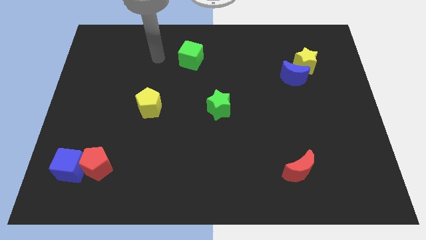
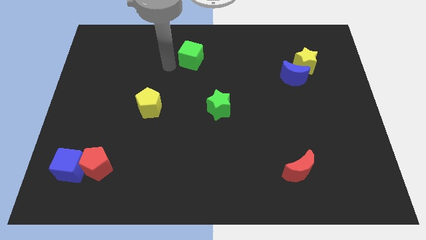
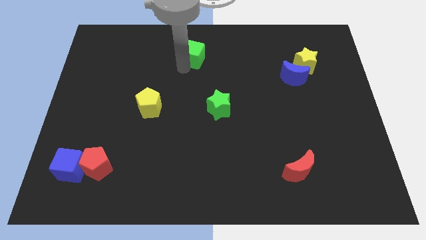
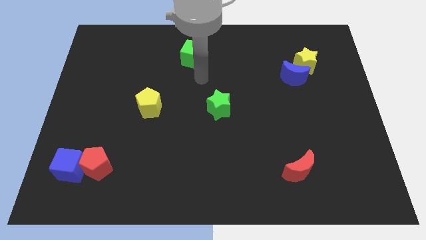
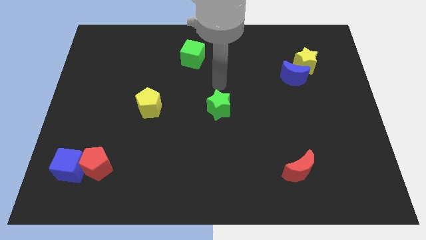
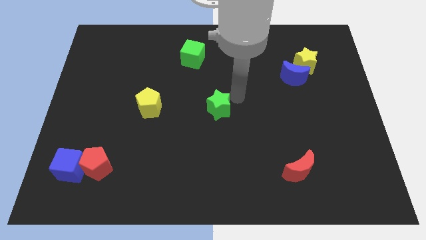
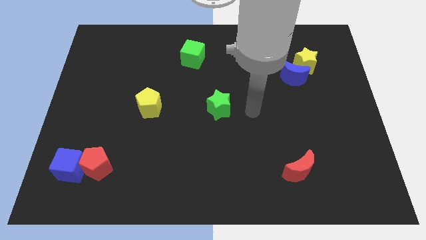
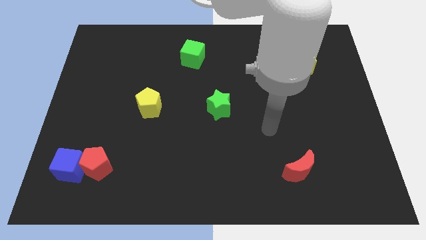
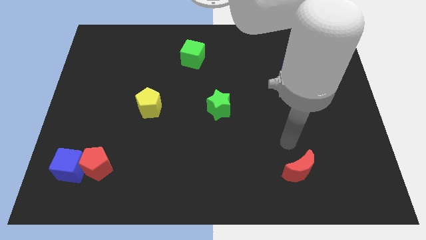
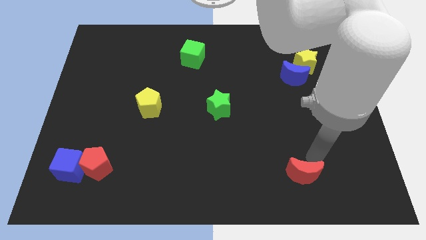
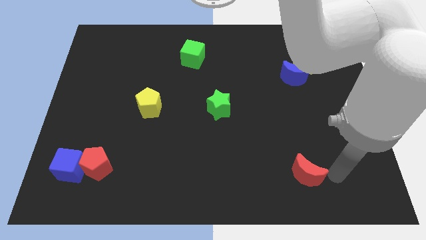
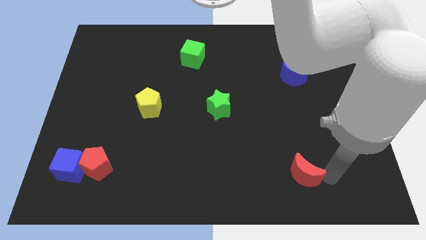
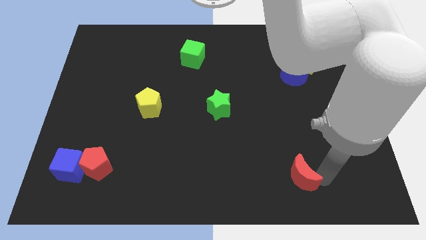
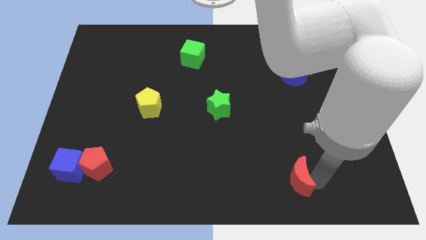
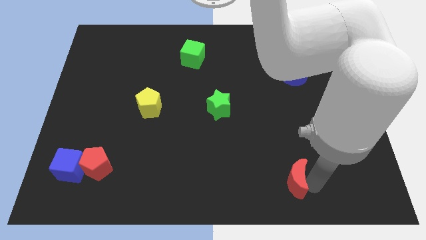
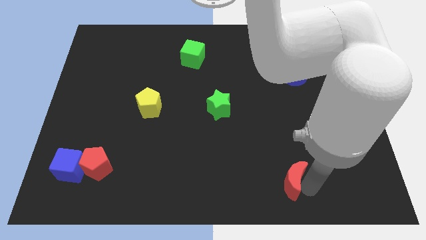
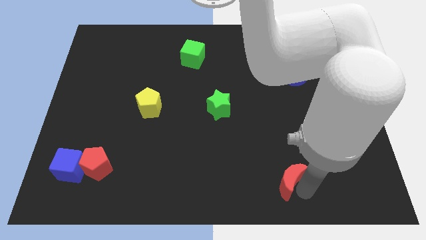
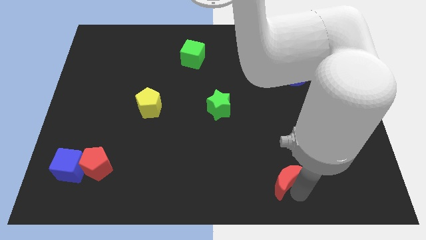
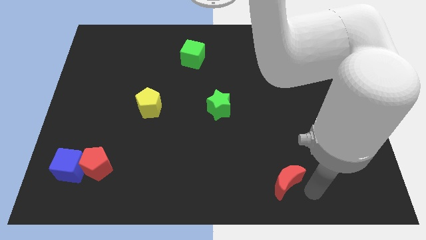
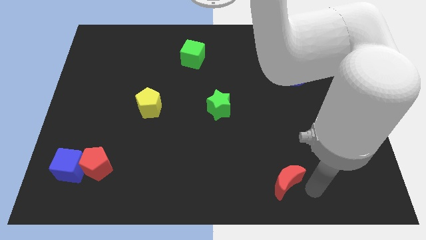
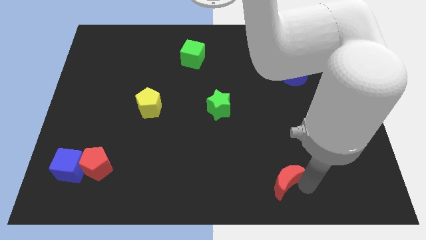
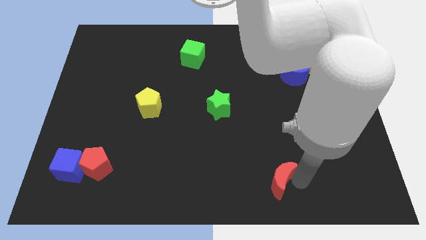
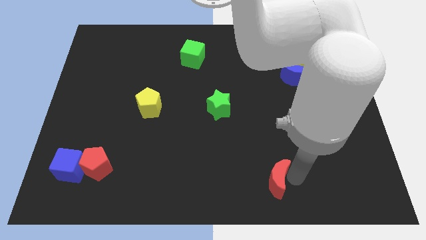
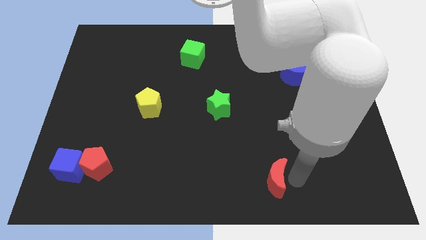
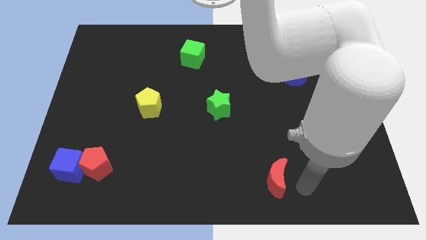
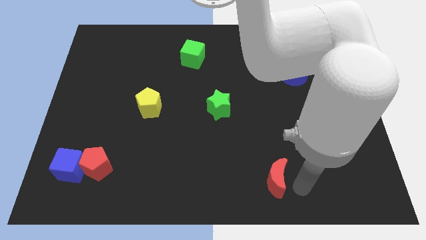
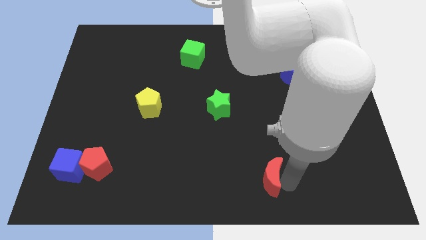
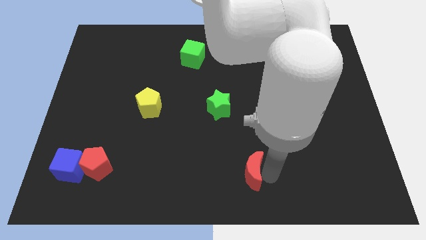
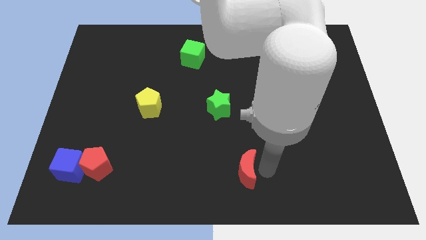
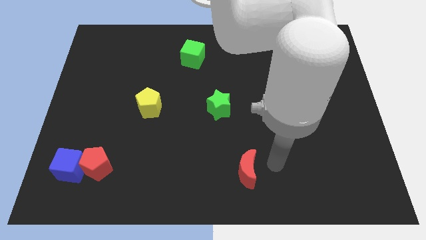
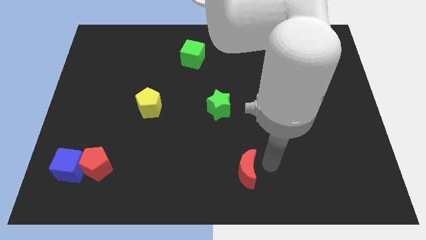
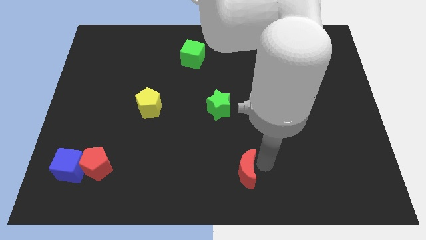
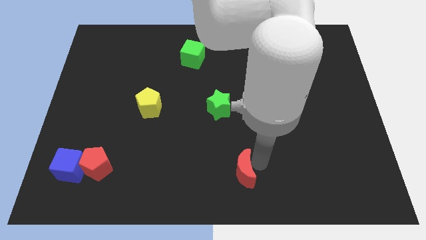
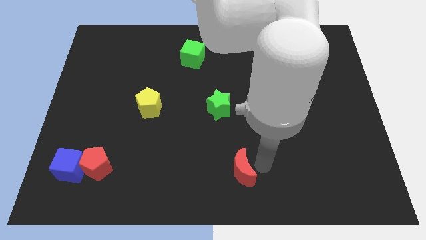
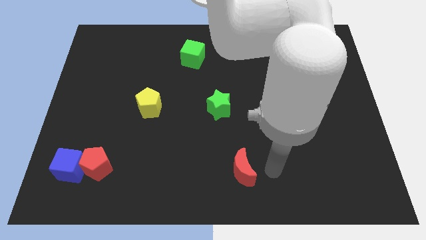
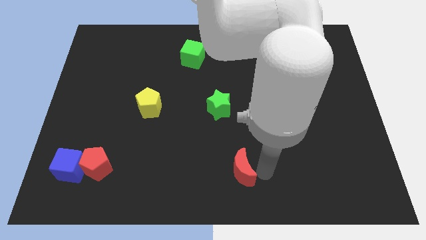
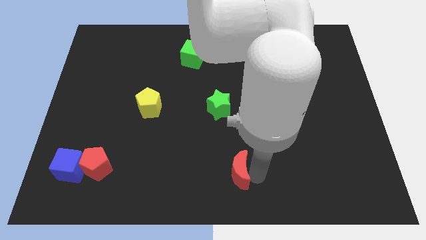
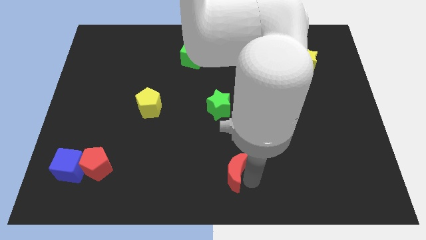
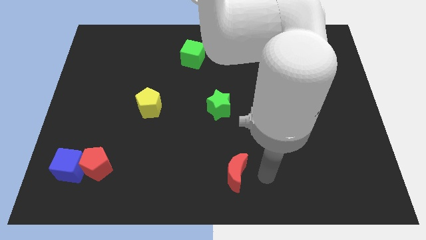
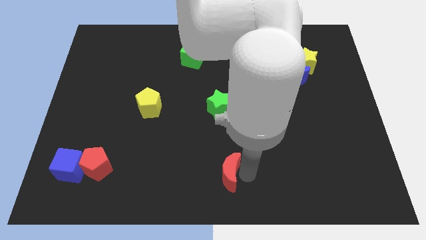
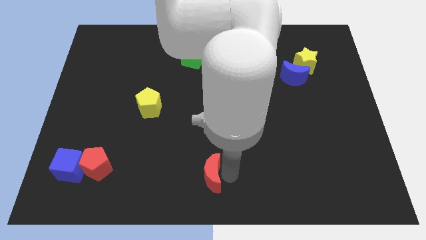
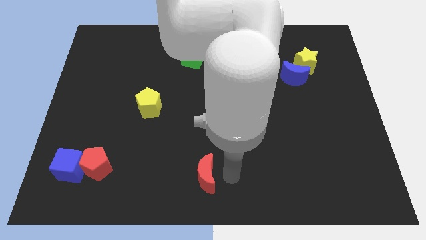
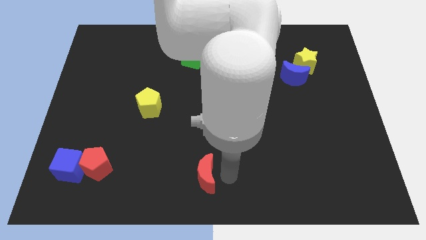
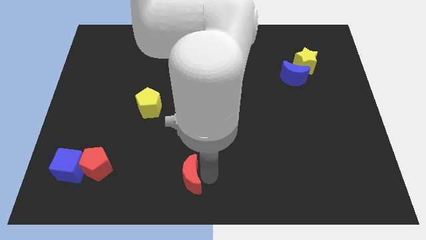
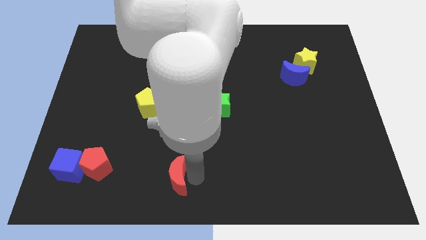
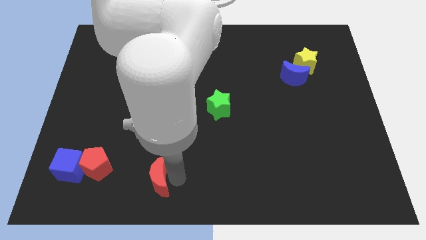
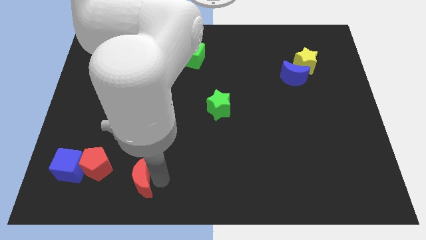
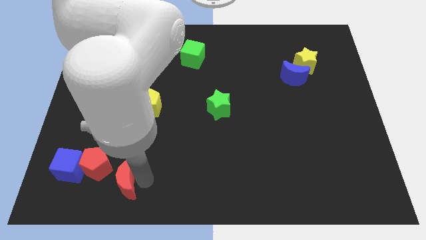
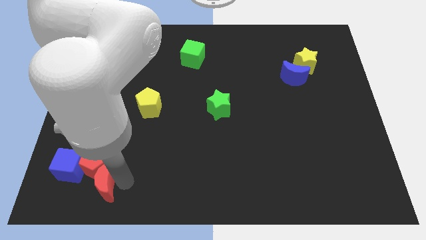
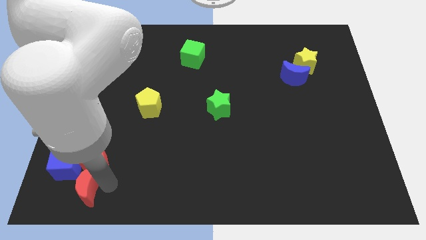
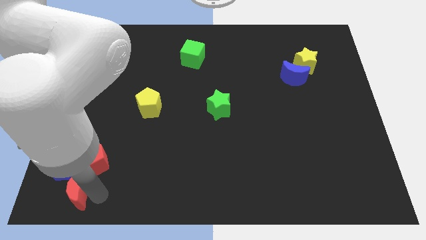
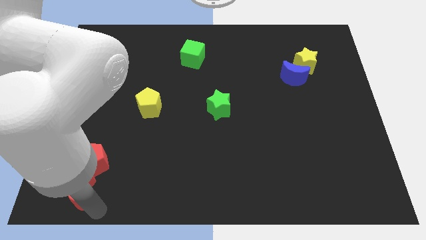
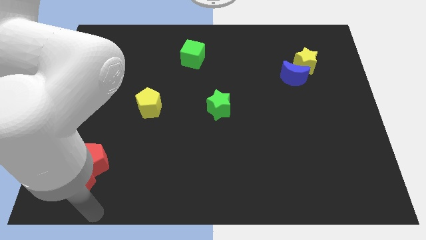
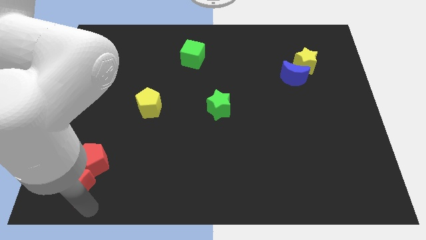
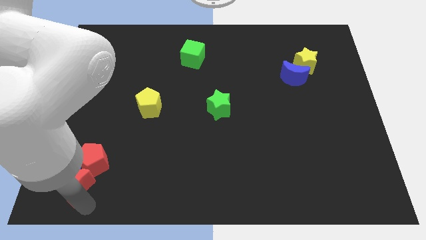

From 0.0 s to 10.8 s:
push the red moon to the blue cube

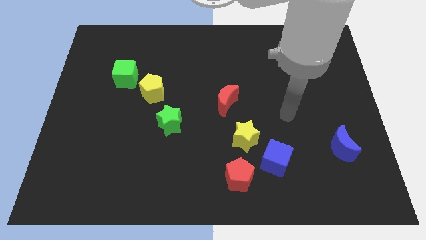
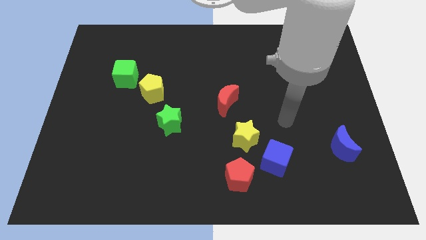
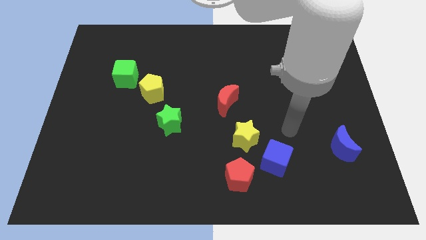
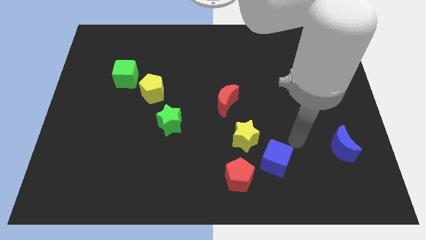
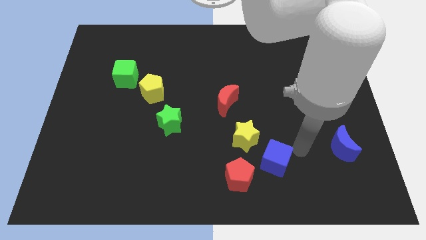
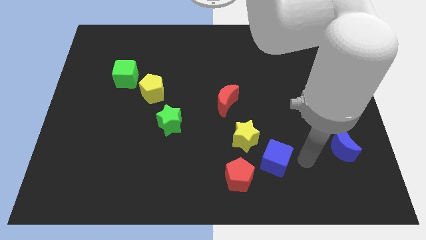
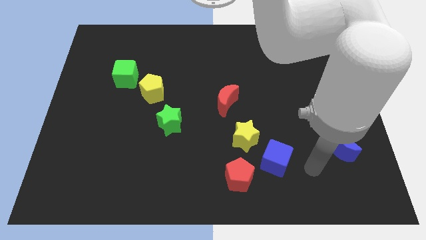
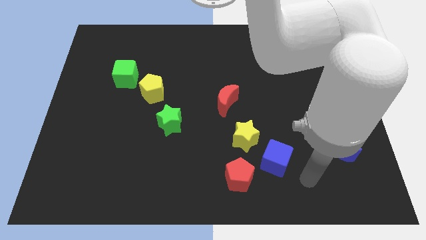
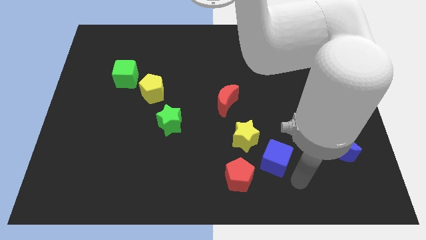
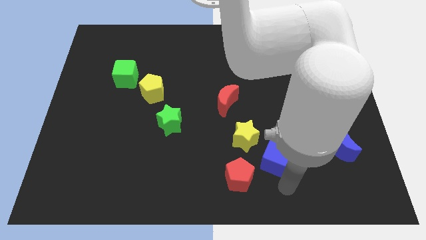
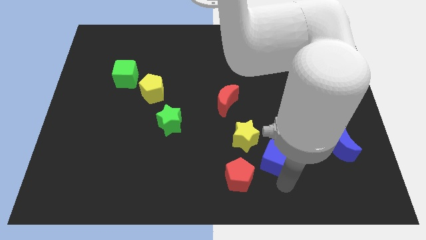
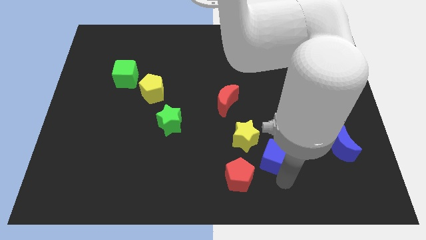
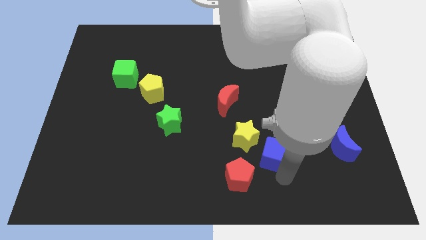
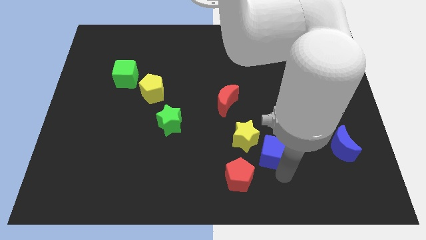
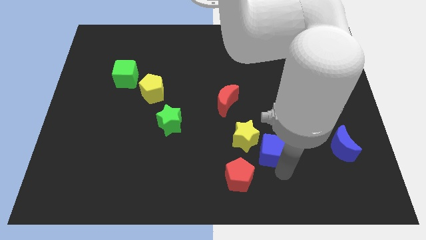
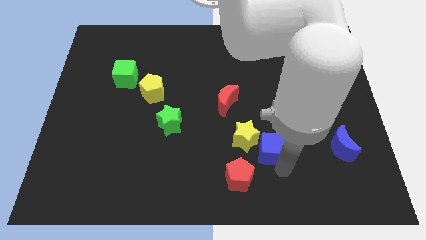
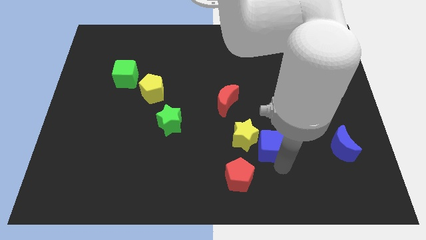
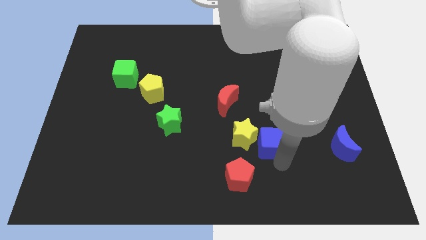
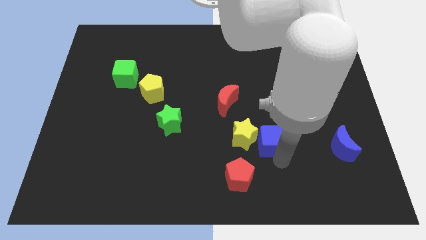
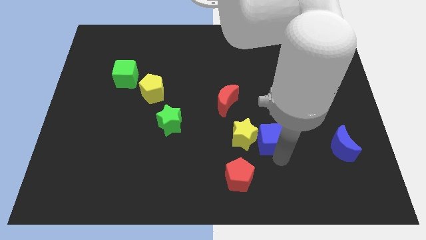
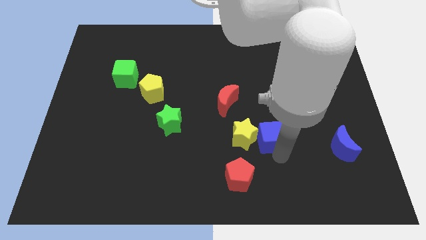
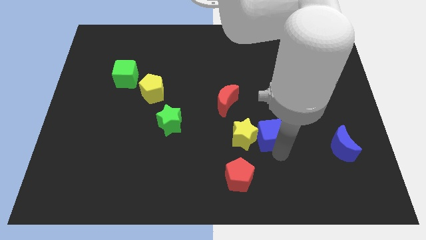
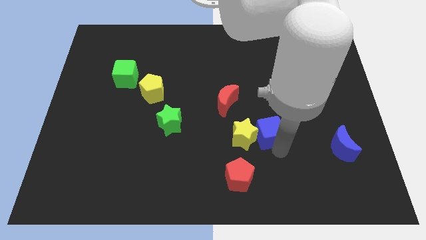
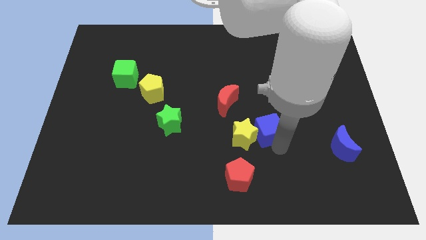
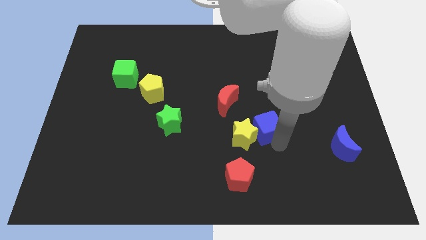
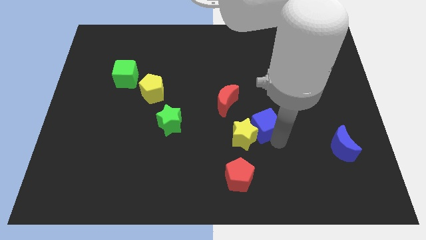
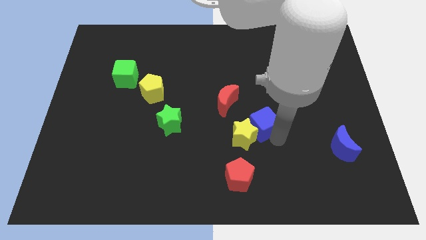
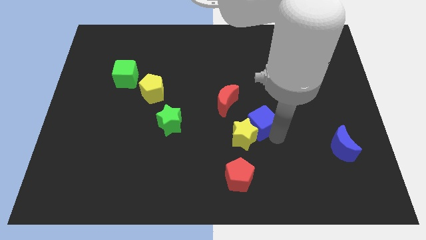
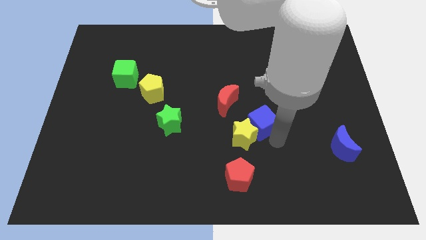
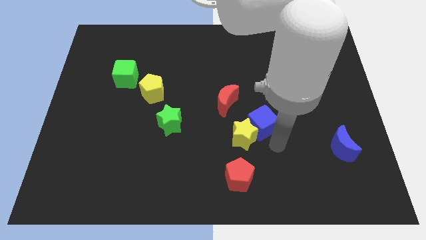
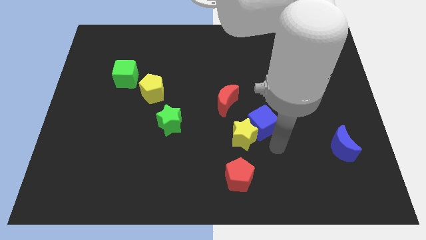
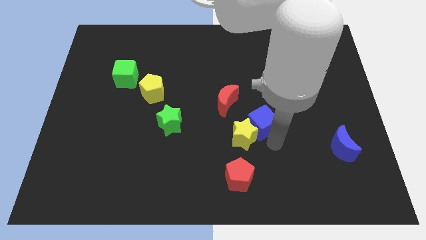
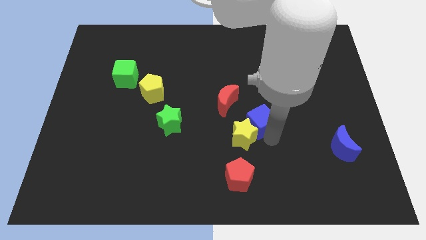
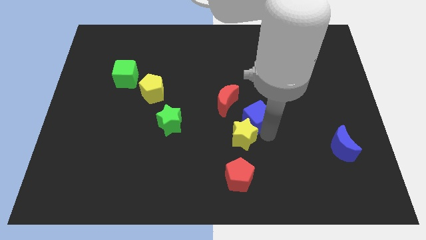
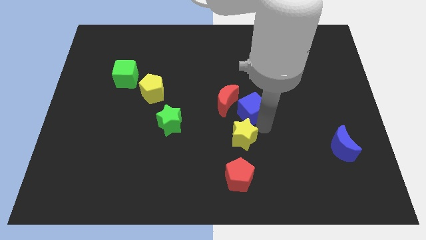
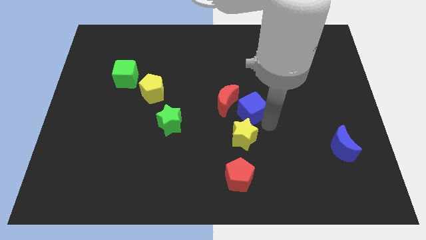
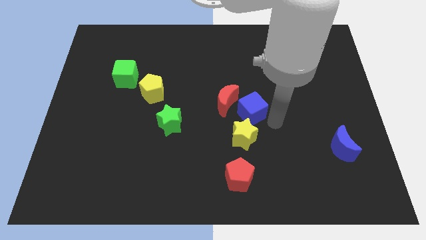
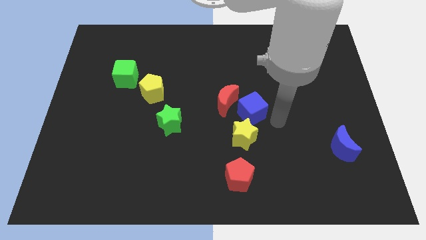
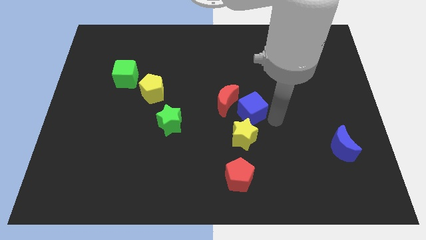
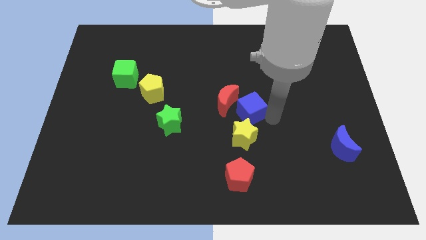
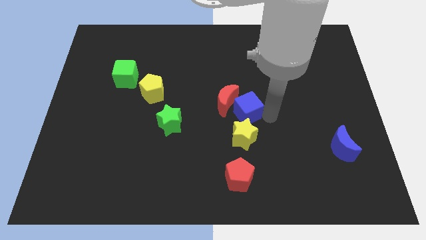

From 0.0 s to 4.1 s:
push the blue cube towards the red moon
